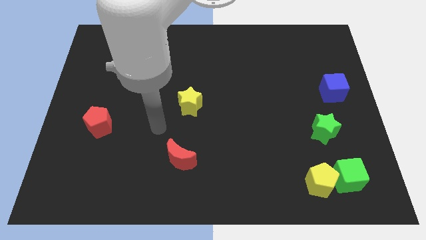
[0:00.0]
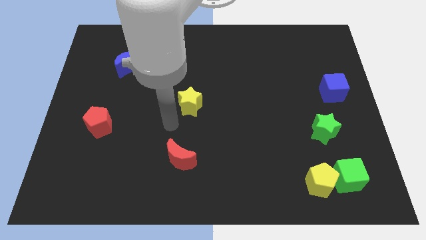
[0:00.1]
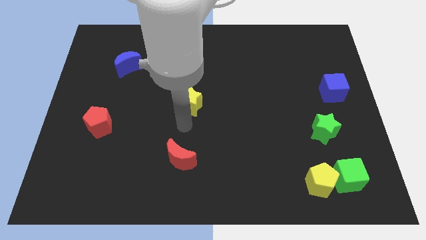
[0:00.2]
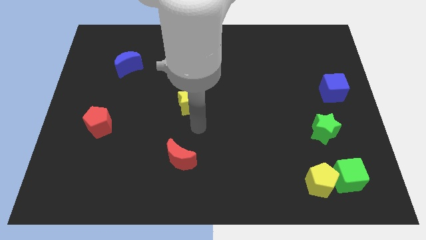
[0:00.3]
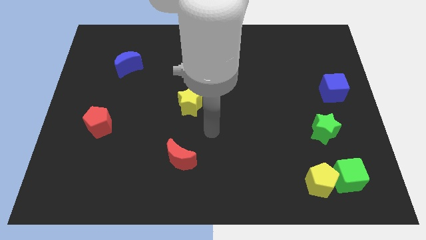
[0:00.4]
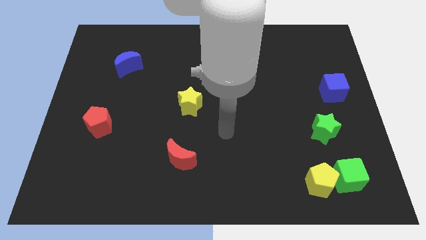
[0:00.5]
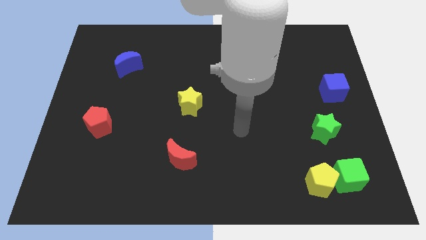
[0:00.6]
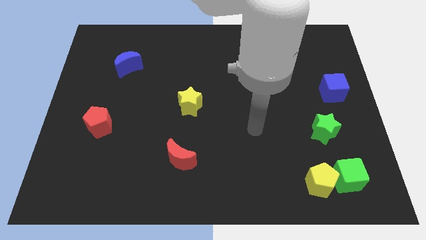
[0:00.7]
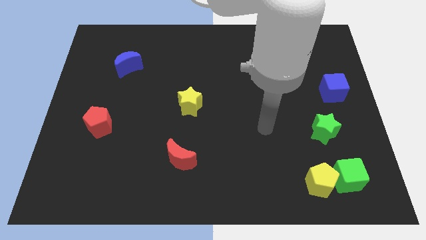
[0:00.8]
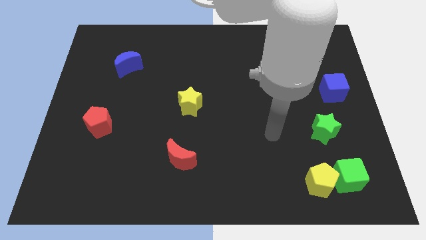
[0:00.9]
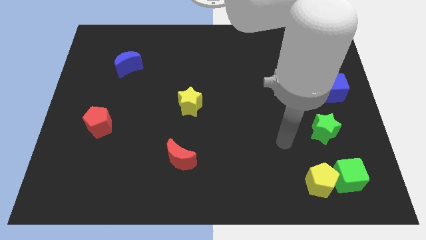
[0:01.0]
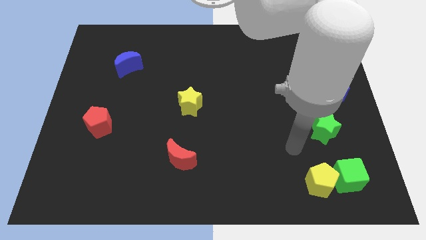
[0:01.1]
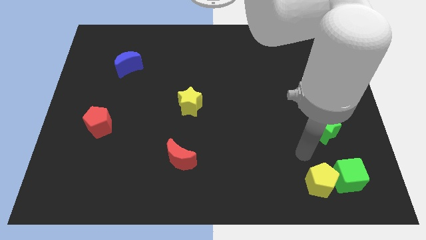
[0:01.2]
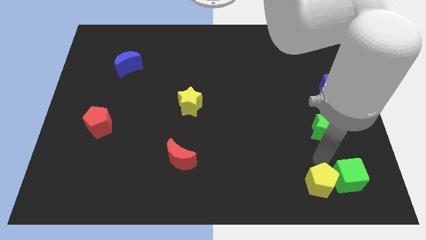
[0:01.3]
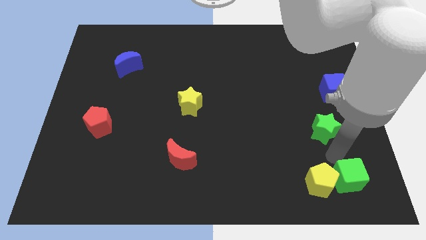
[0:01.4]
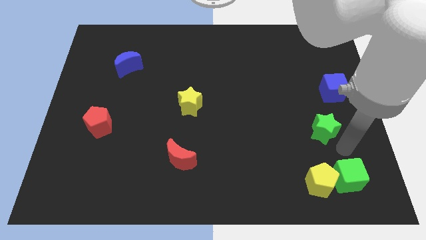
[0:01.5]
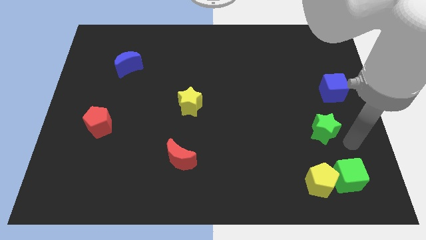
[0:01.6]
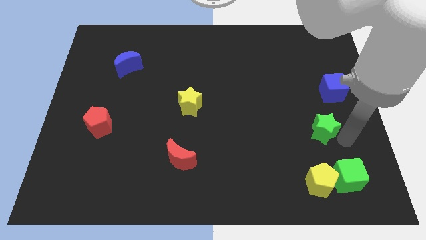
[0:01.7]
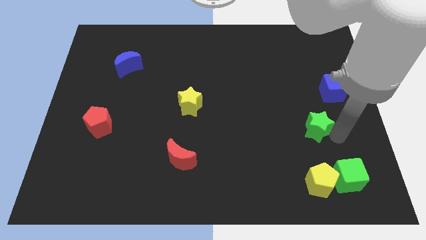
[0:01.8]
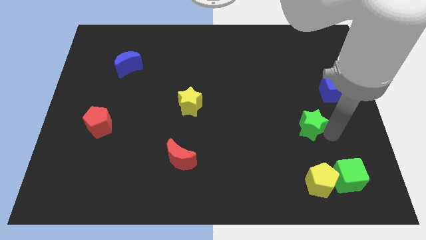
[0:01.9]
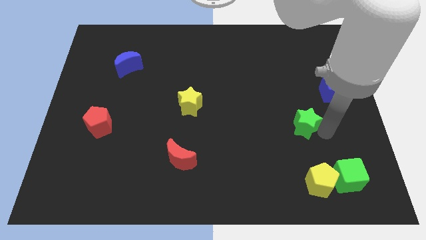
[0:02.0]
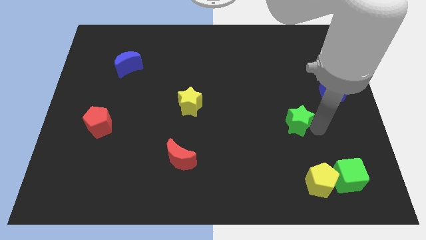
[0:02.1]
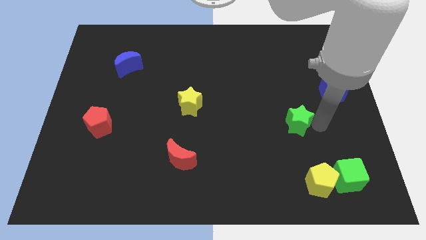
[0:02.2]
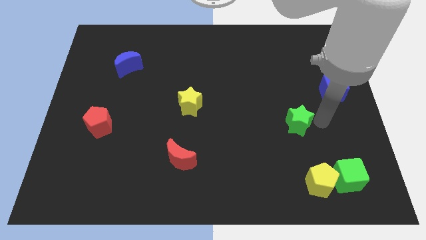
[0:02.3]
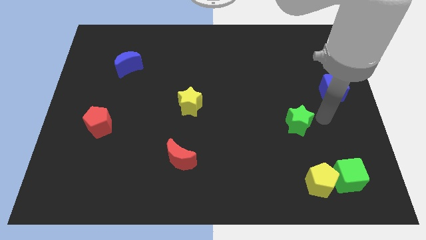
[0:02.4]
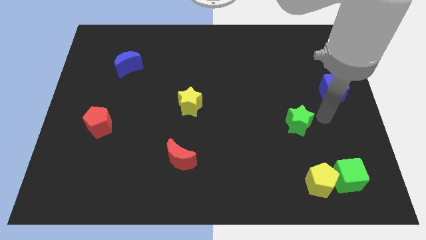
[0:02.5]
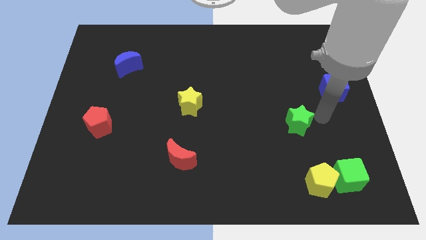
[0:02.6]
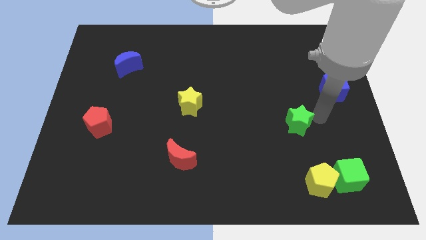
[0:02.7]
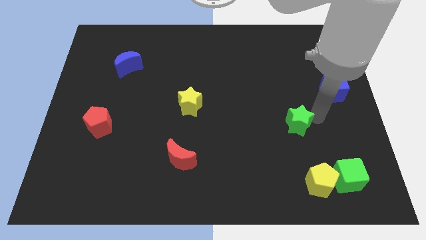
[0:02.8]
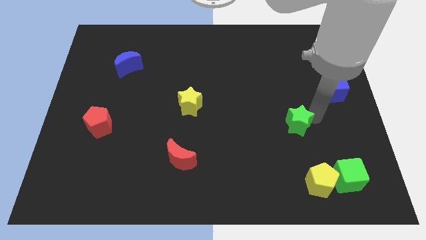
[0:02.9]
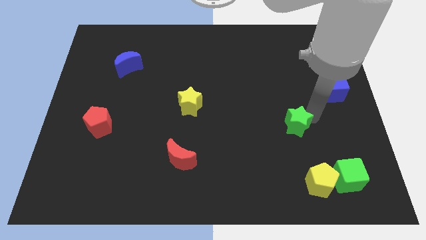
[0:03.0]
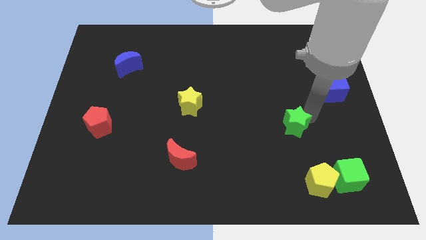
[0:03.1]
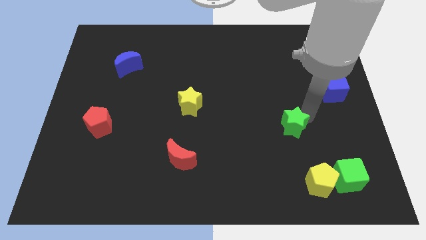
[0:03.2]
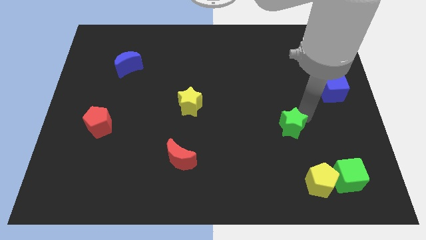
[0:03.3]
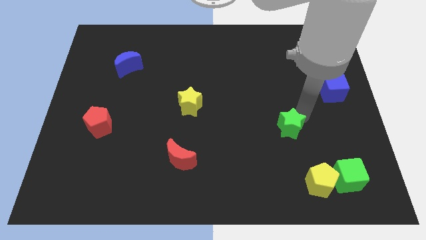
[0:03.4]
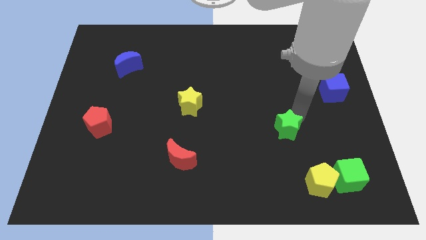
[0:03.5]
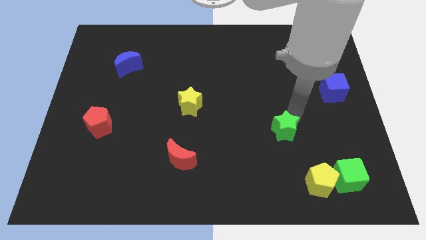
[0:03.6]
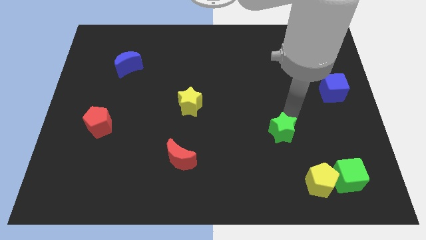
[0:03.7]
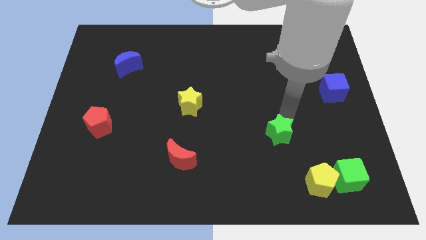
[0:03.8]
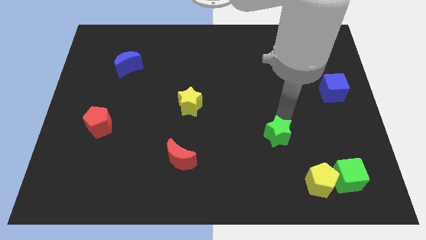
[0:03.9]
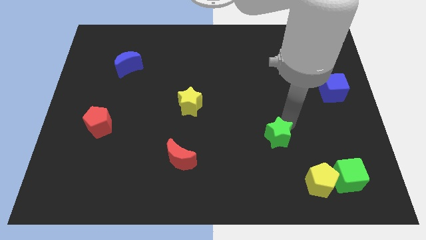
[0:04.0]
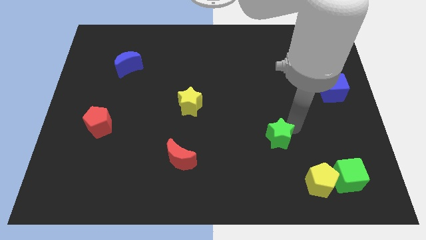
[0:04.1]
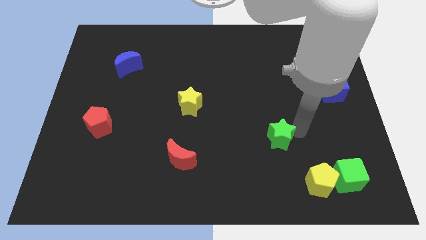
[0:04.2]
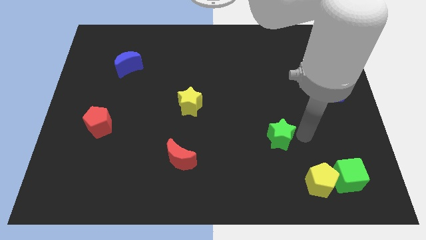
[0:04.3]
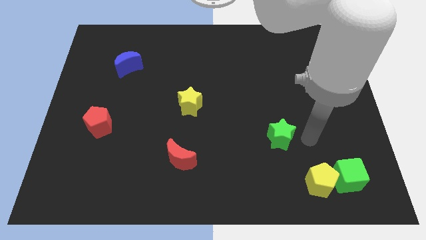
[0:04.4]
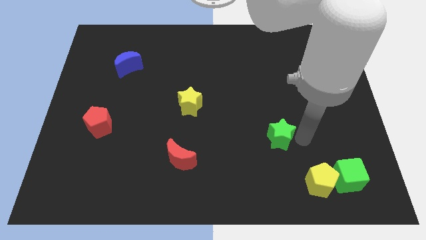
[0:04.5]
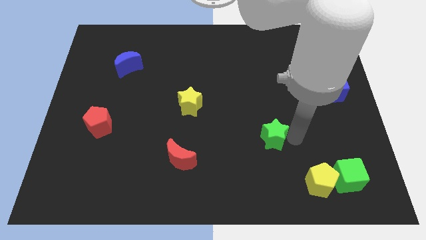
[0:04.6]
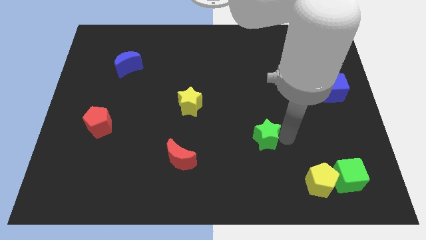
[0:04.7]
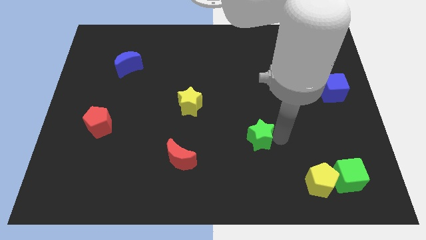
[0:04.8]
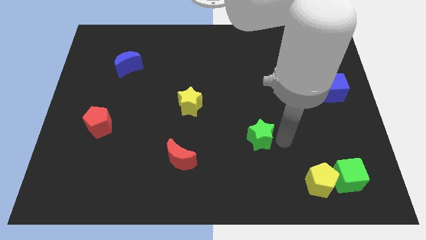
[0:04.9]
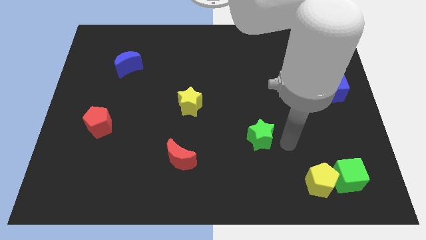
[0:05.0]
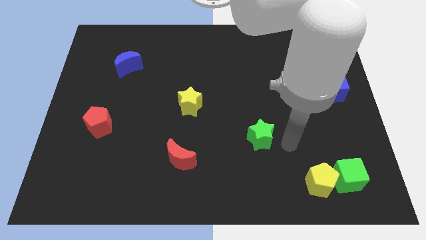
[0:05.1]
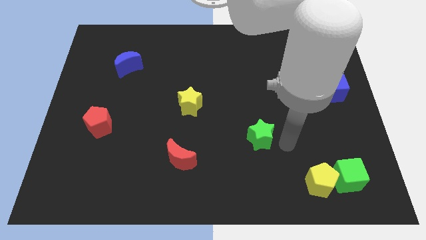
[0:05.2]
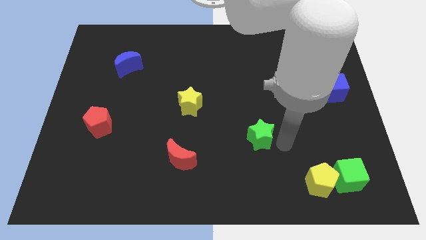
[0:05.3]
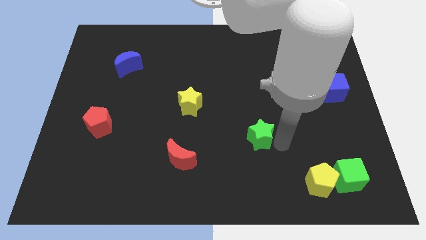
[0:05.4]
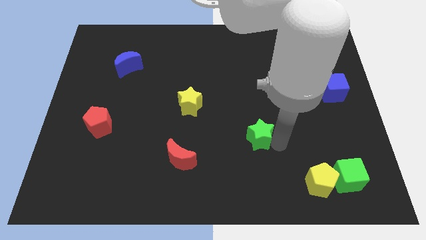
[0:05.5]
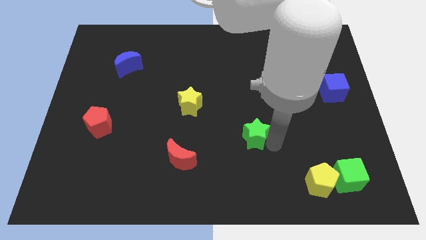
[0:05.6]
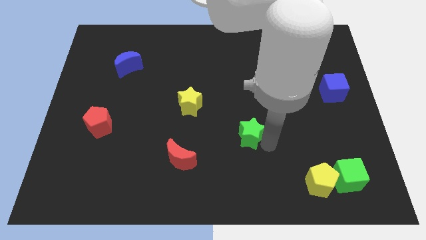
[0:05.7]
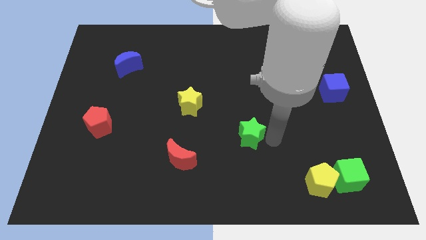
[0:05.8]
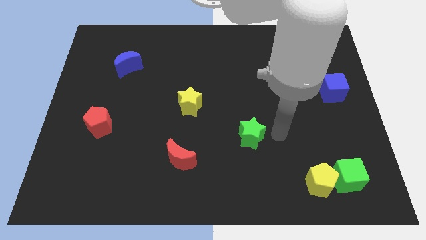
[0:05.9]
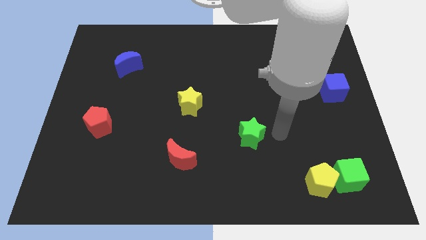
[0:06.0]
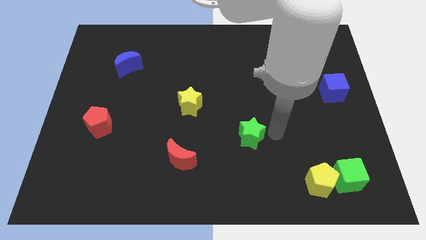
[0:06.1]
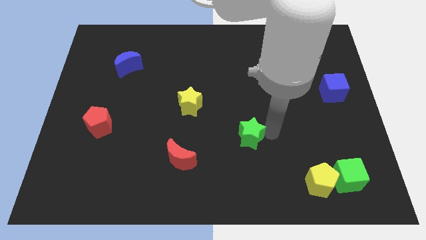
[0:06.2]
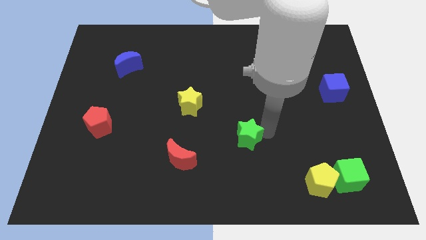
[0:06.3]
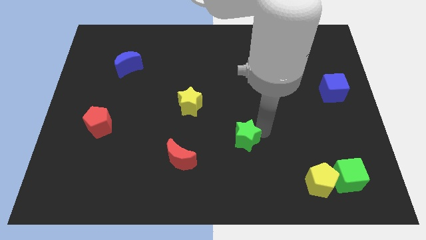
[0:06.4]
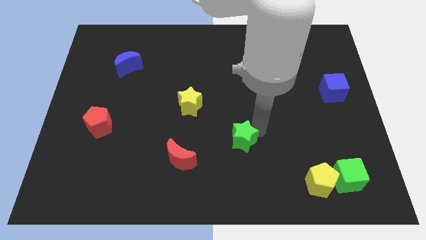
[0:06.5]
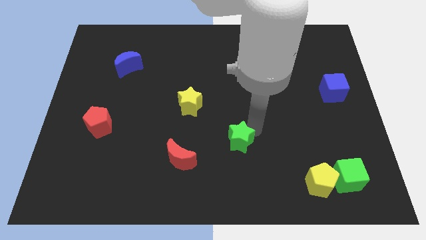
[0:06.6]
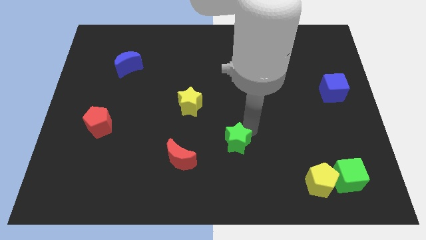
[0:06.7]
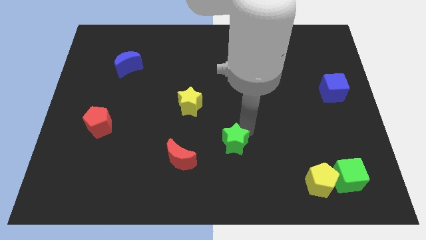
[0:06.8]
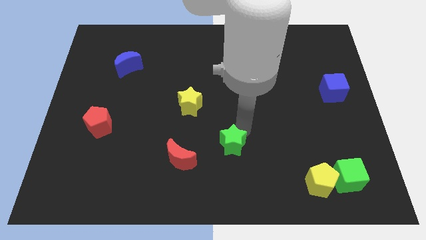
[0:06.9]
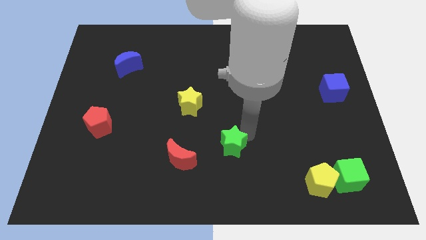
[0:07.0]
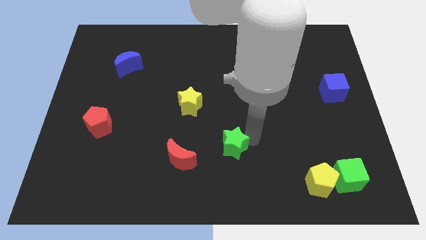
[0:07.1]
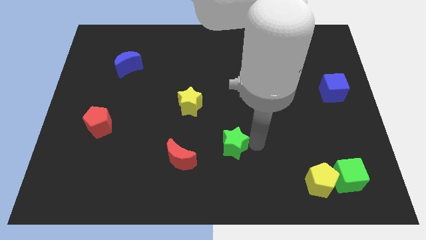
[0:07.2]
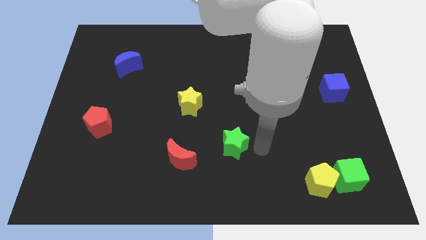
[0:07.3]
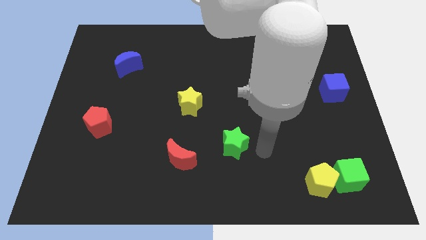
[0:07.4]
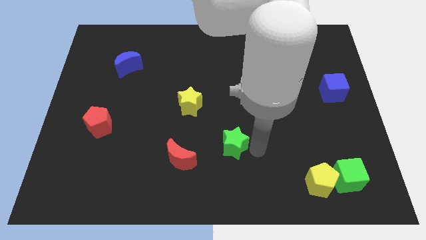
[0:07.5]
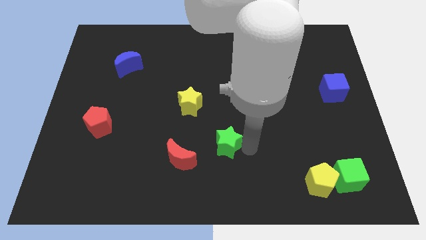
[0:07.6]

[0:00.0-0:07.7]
put the green star to the top right side of the red moon

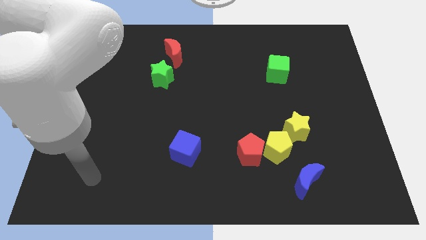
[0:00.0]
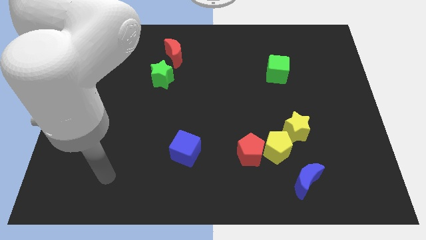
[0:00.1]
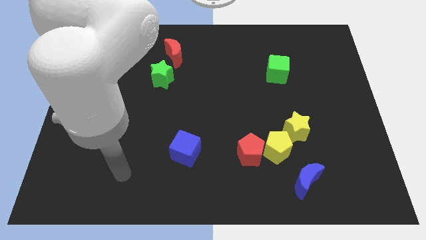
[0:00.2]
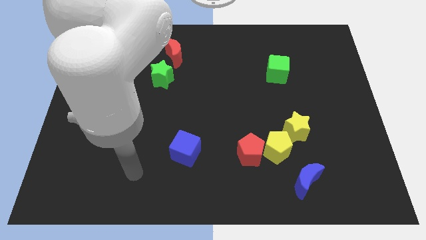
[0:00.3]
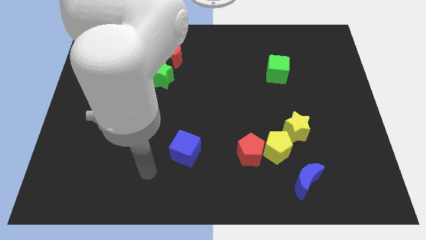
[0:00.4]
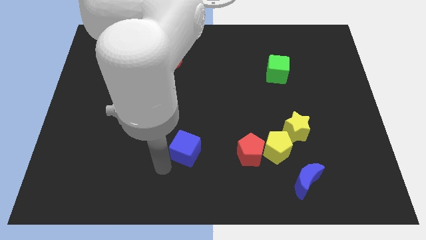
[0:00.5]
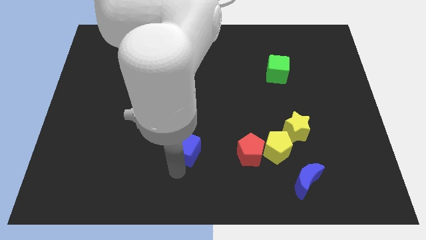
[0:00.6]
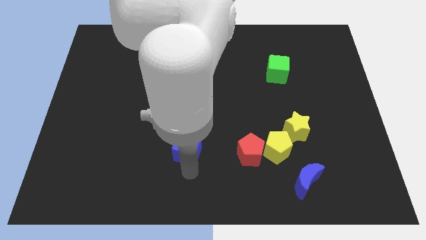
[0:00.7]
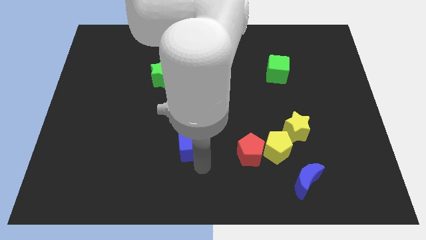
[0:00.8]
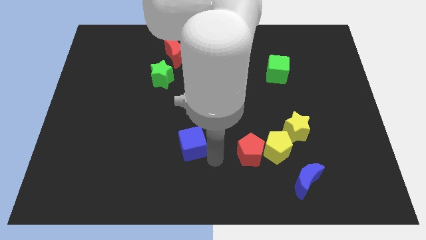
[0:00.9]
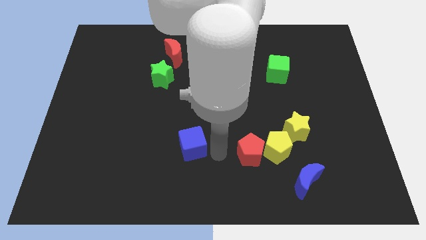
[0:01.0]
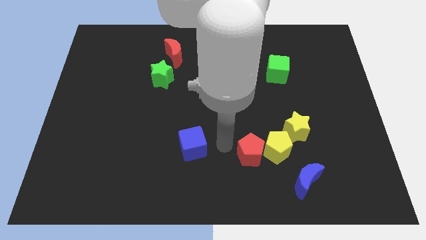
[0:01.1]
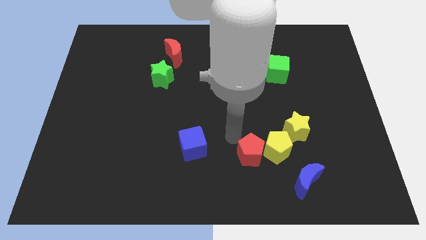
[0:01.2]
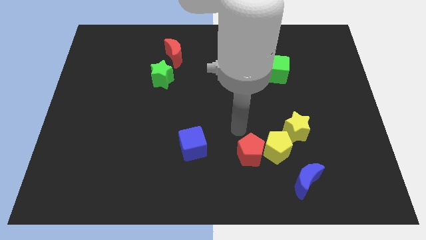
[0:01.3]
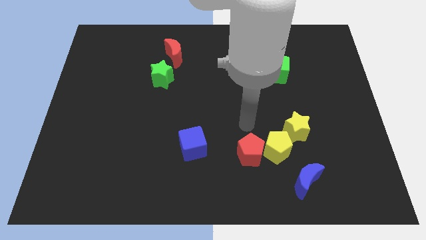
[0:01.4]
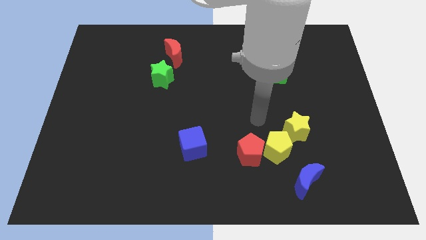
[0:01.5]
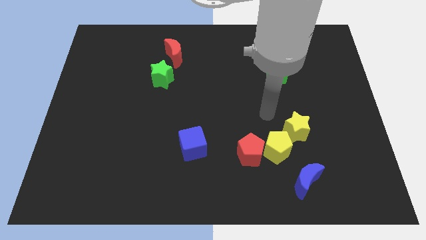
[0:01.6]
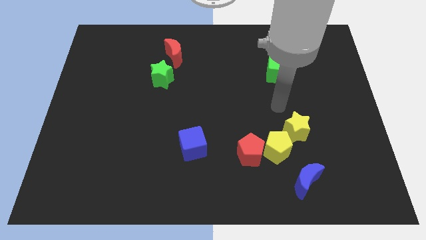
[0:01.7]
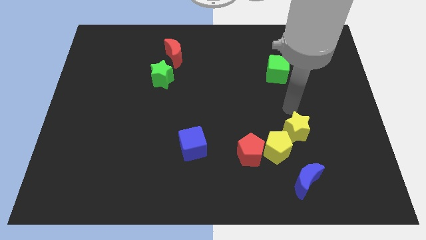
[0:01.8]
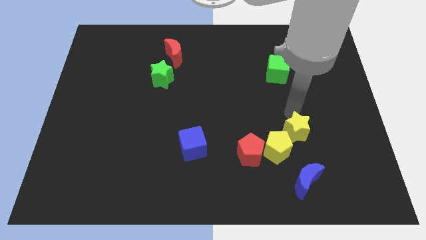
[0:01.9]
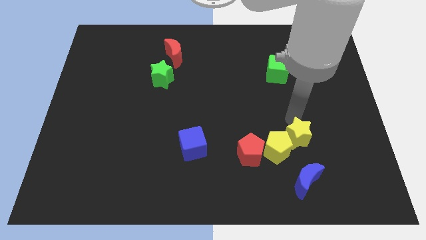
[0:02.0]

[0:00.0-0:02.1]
put the yellow star to the right of the red pentagon
